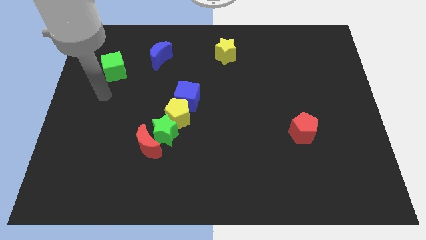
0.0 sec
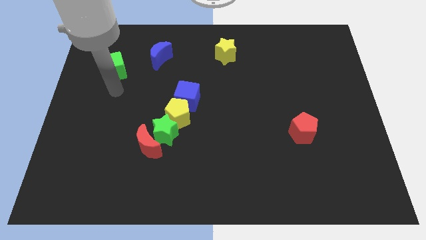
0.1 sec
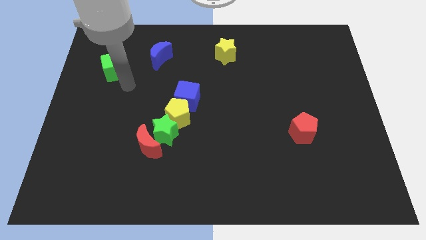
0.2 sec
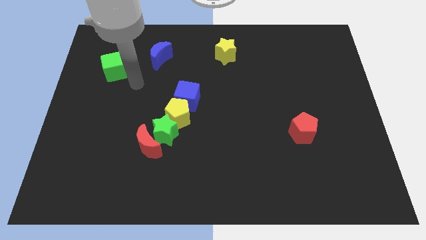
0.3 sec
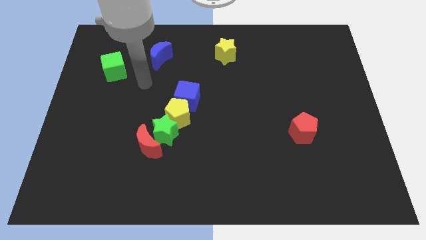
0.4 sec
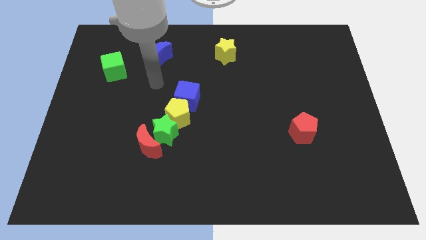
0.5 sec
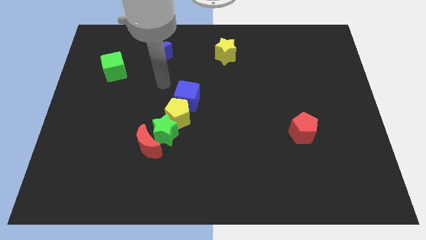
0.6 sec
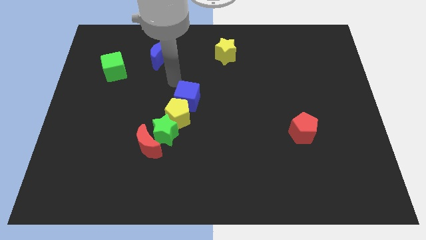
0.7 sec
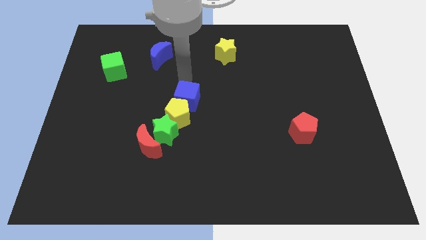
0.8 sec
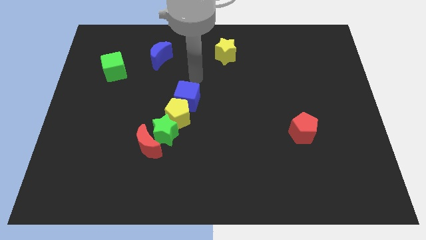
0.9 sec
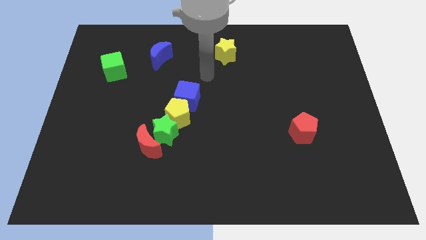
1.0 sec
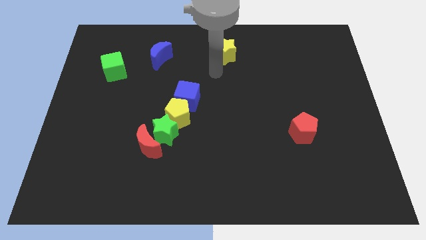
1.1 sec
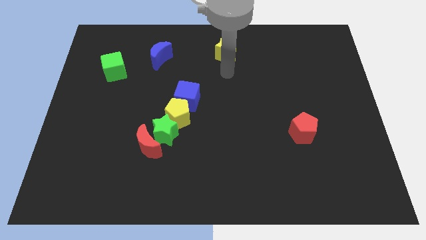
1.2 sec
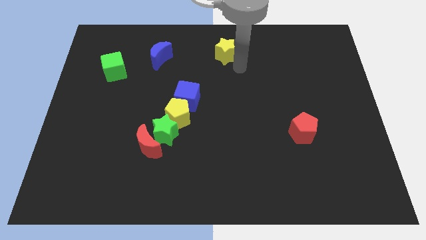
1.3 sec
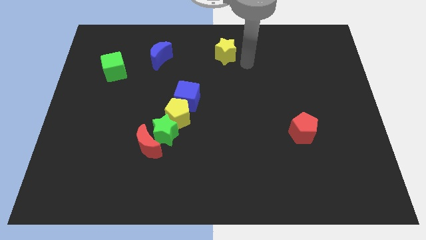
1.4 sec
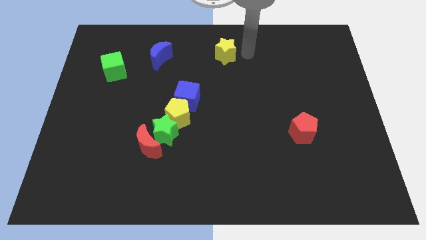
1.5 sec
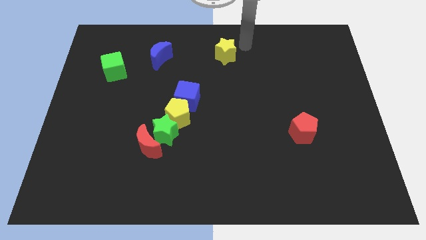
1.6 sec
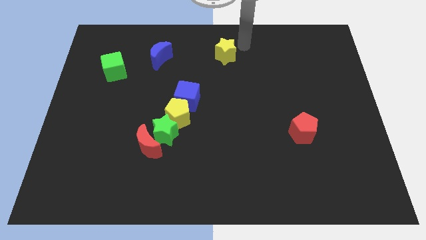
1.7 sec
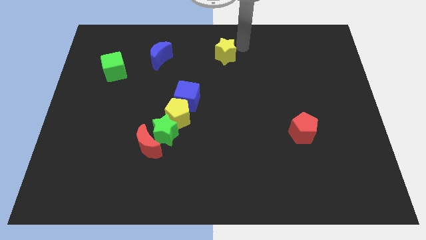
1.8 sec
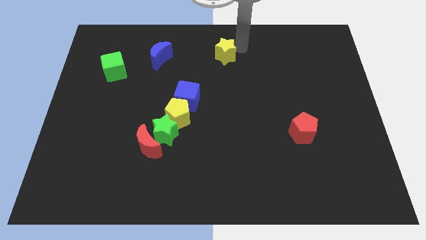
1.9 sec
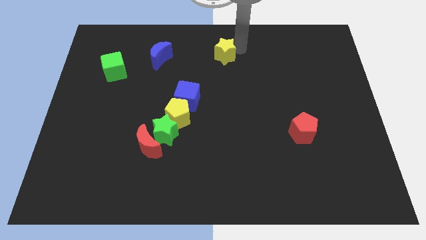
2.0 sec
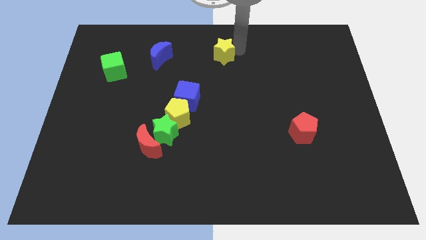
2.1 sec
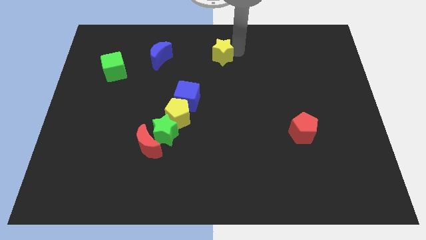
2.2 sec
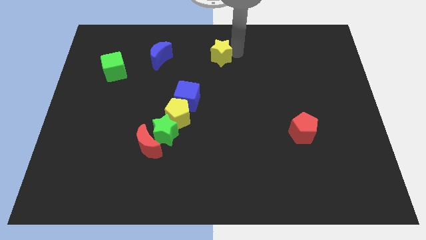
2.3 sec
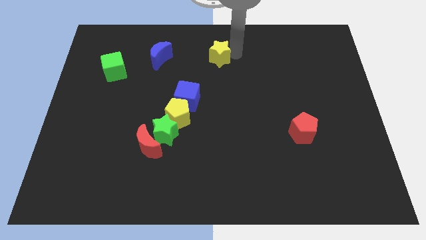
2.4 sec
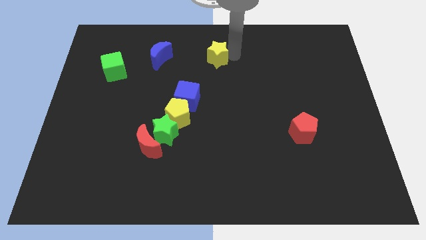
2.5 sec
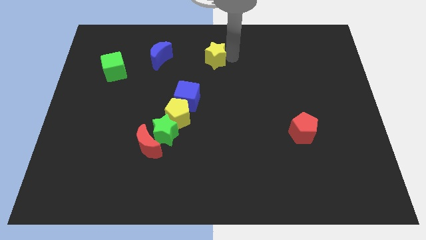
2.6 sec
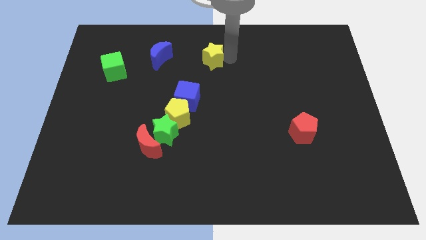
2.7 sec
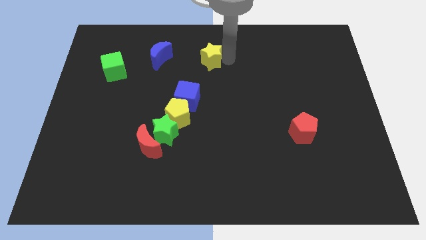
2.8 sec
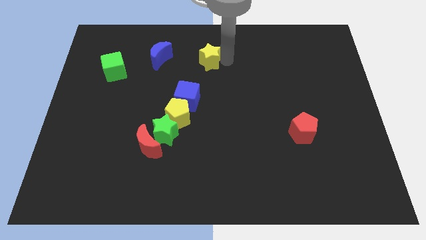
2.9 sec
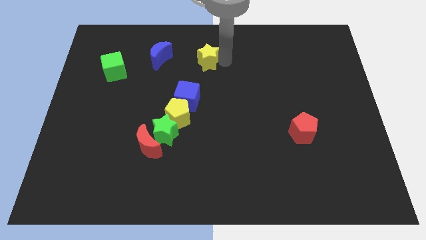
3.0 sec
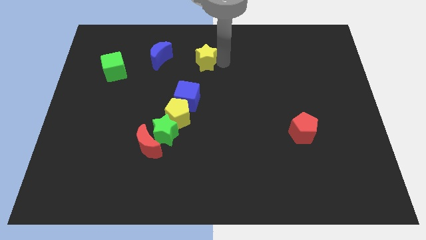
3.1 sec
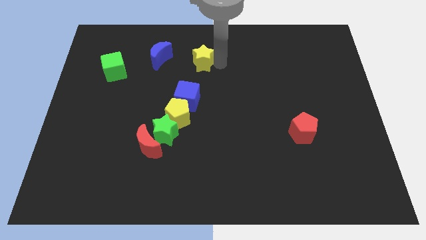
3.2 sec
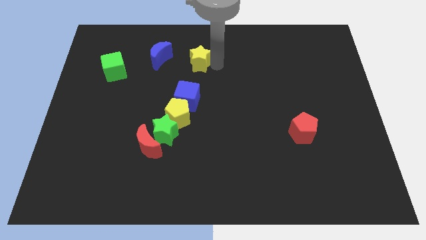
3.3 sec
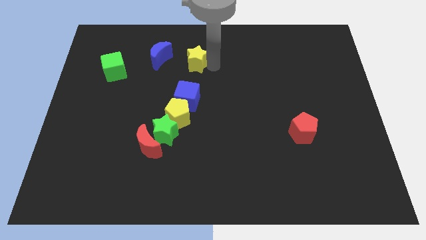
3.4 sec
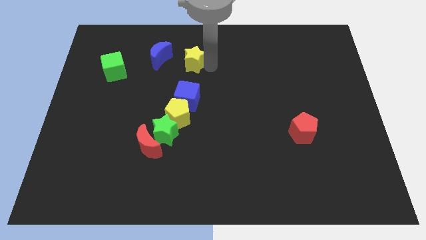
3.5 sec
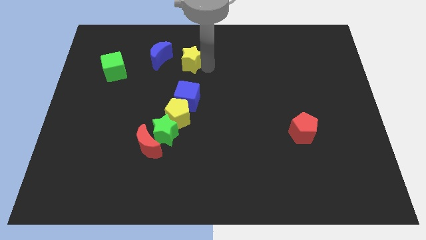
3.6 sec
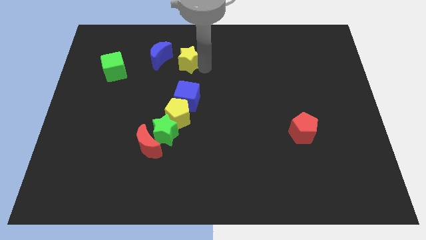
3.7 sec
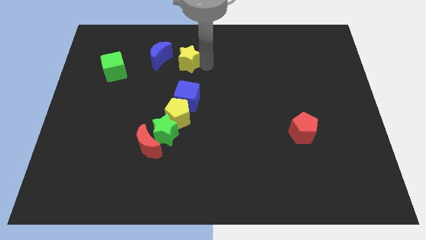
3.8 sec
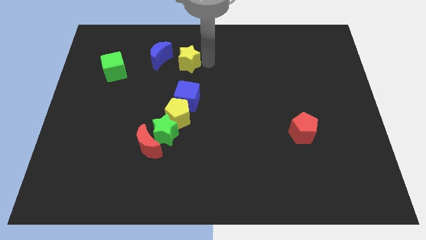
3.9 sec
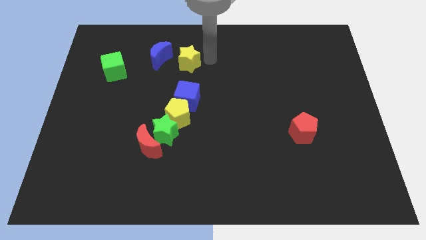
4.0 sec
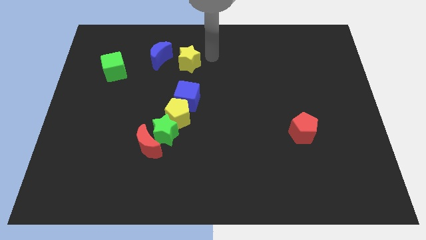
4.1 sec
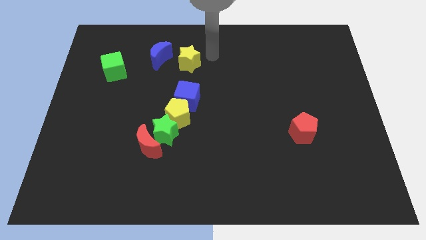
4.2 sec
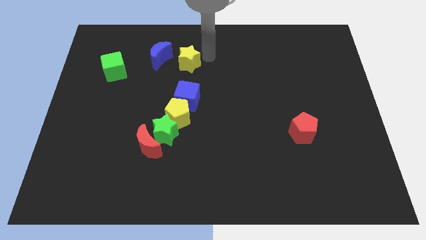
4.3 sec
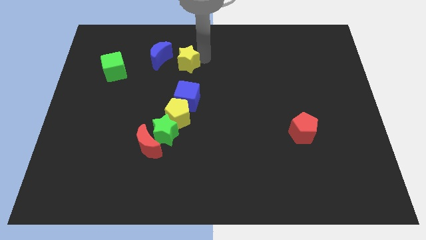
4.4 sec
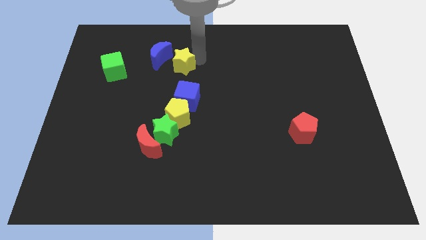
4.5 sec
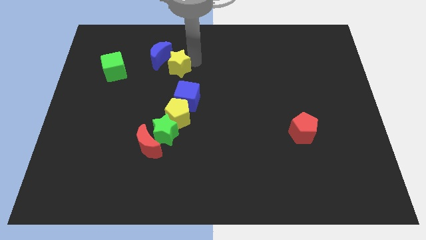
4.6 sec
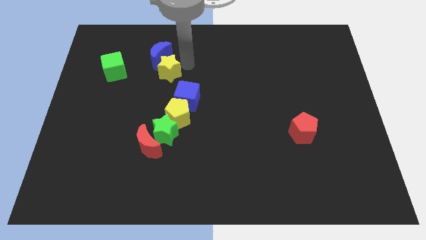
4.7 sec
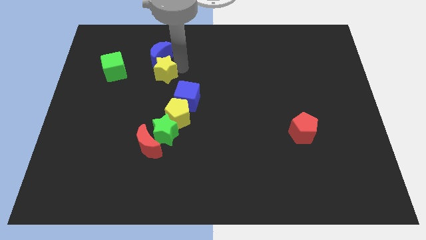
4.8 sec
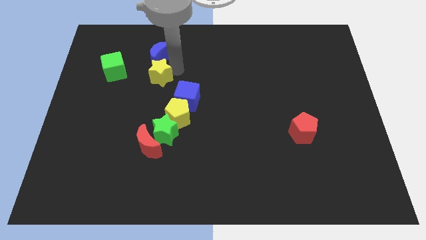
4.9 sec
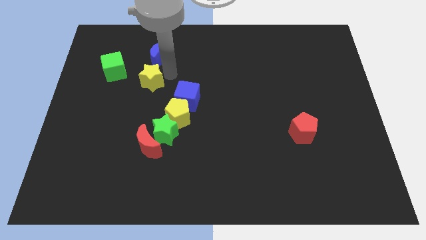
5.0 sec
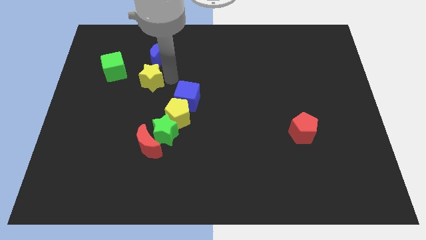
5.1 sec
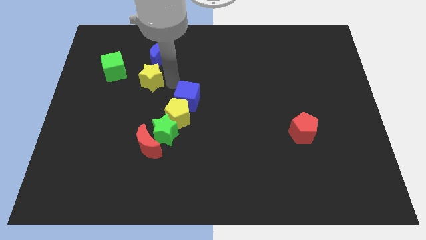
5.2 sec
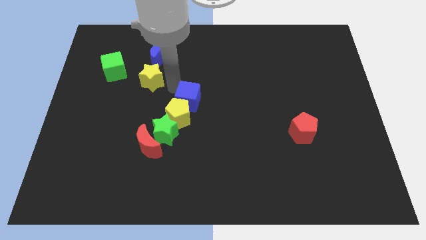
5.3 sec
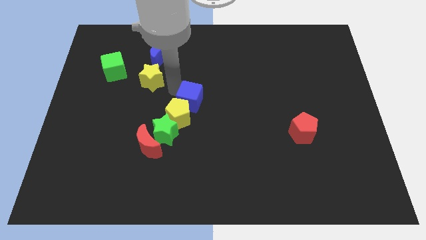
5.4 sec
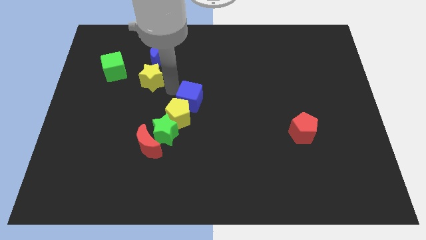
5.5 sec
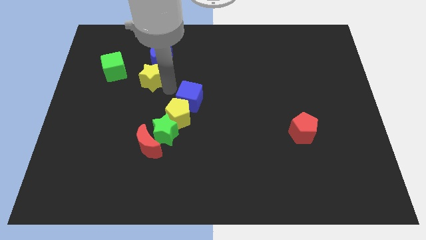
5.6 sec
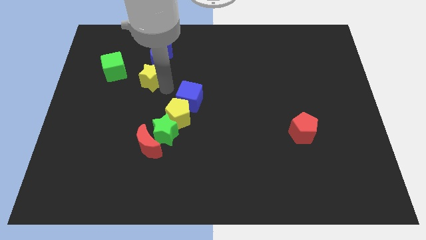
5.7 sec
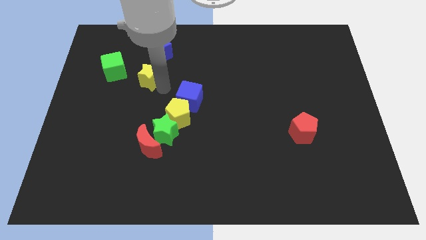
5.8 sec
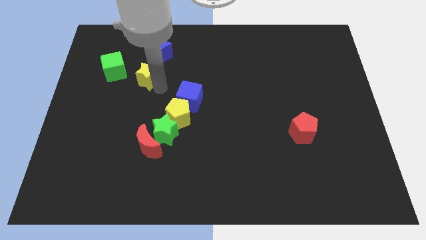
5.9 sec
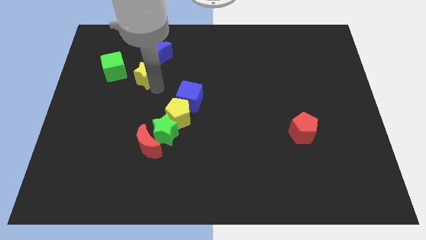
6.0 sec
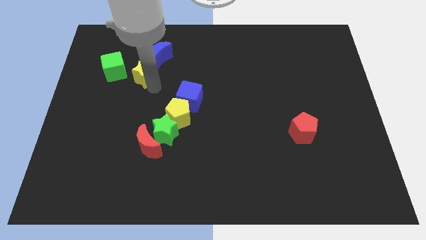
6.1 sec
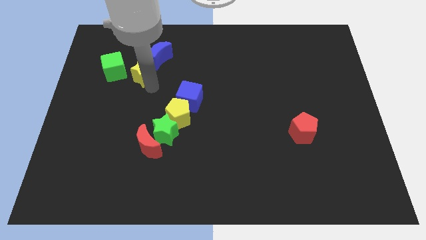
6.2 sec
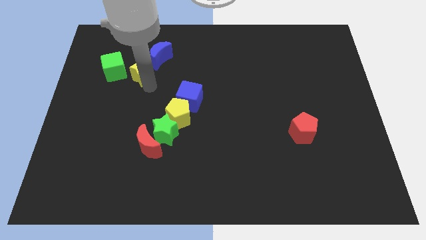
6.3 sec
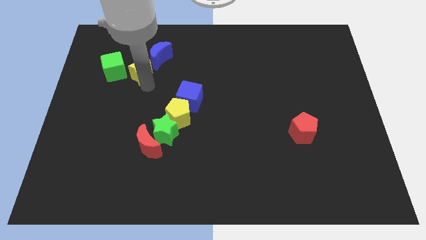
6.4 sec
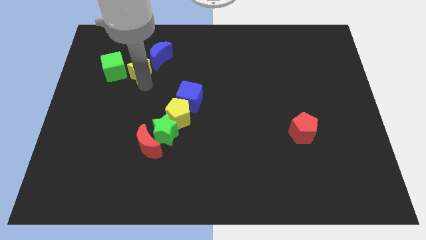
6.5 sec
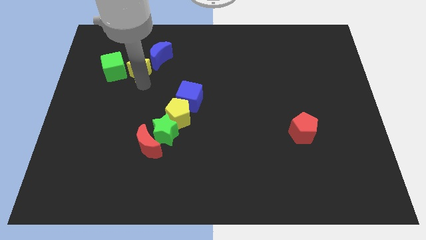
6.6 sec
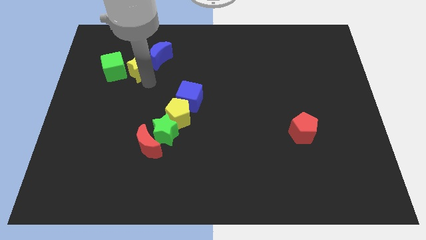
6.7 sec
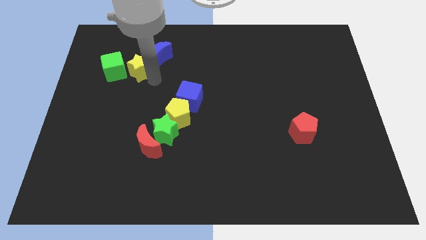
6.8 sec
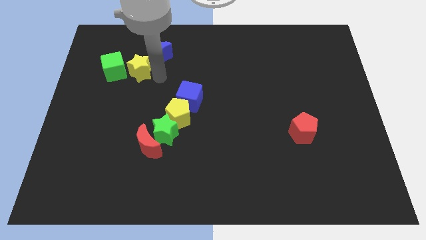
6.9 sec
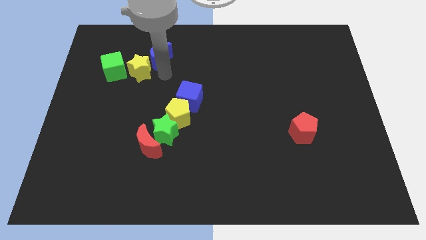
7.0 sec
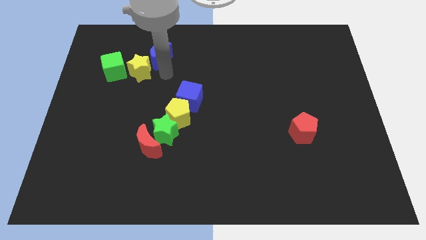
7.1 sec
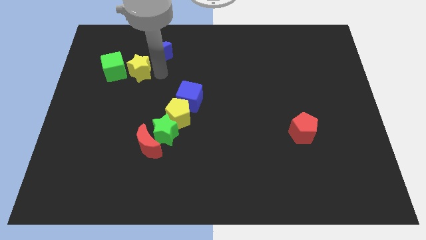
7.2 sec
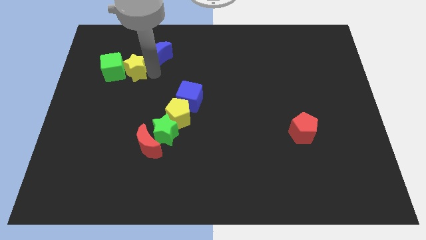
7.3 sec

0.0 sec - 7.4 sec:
put the yellow star to the green cube
